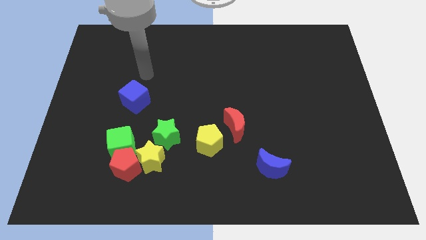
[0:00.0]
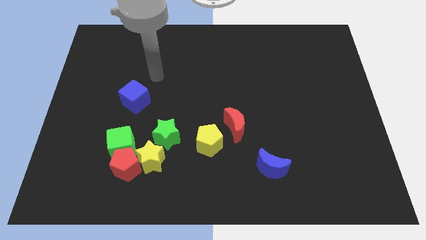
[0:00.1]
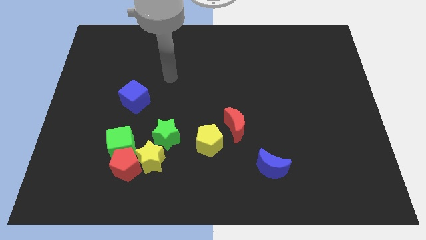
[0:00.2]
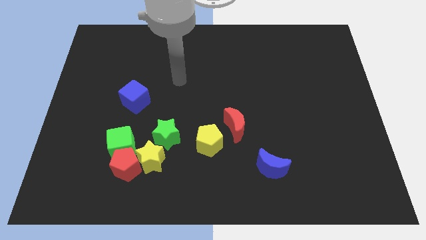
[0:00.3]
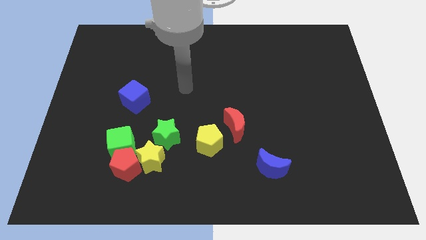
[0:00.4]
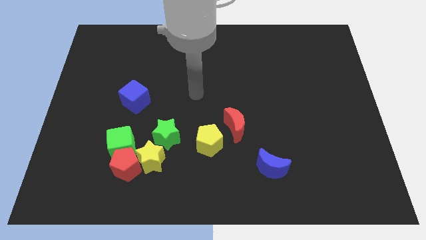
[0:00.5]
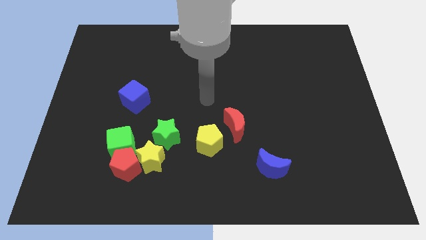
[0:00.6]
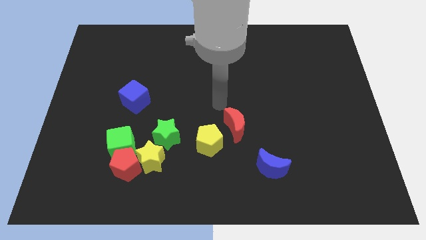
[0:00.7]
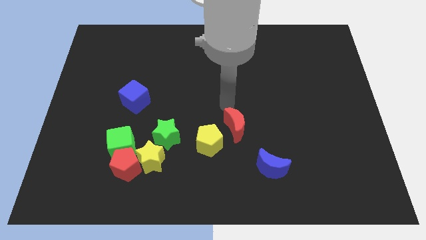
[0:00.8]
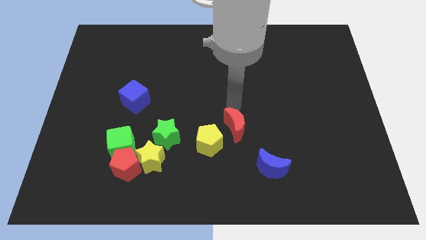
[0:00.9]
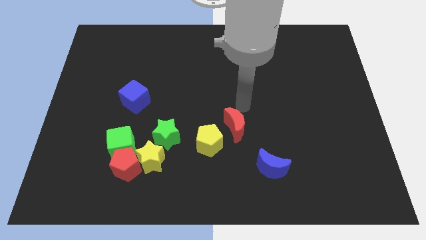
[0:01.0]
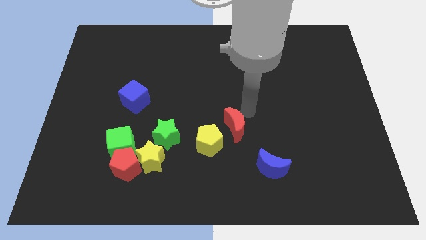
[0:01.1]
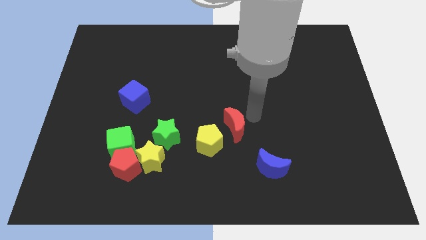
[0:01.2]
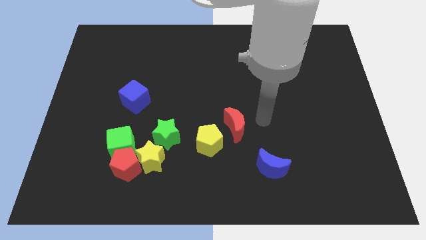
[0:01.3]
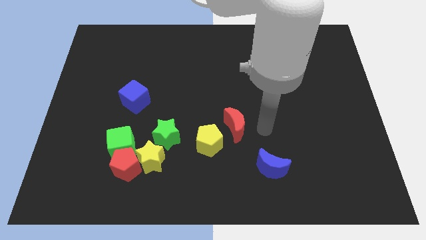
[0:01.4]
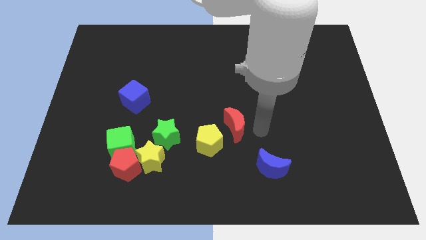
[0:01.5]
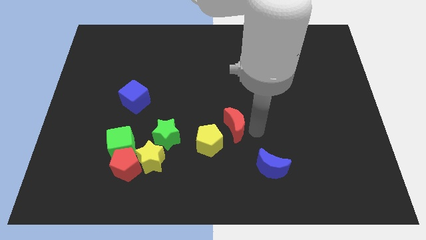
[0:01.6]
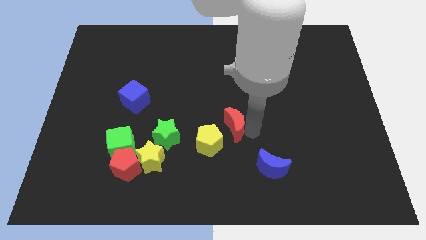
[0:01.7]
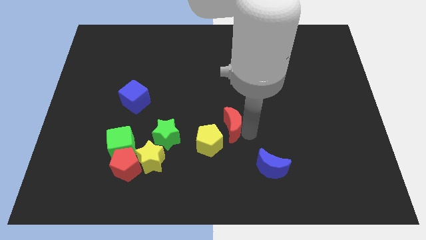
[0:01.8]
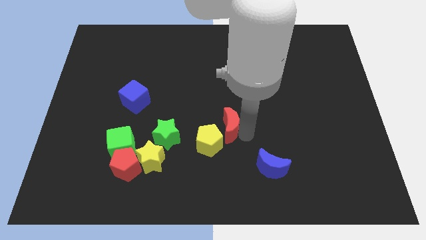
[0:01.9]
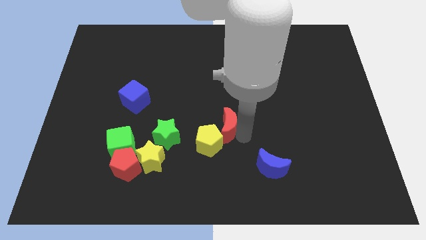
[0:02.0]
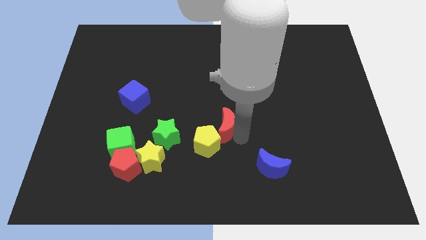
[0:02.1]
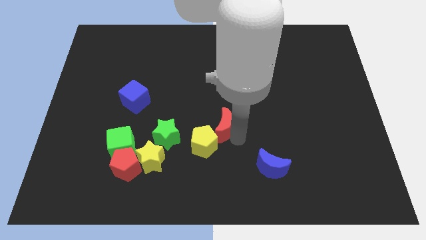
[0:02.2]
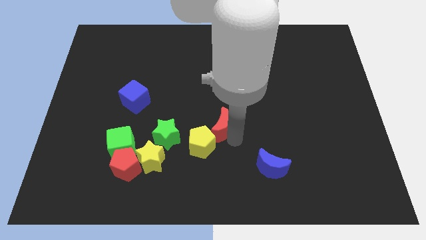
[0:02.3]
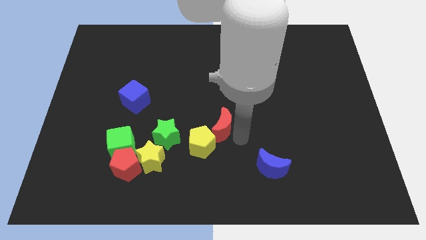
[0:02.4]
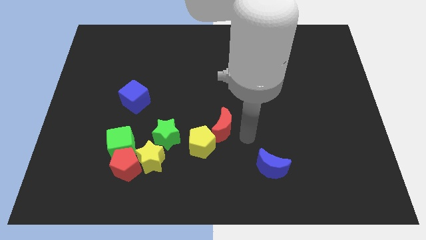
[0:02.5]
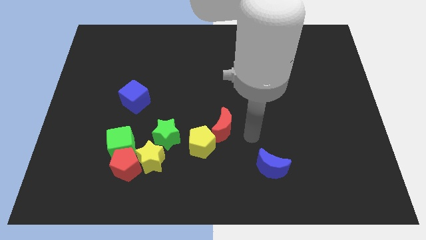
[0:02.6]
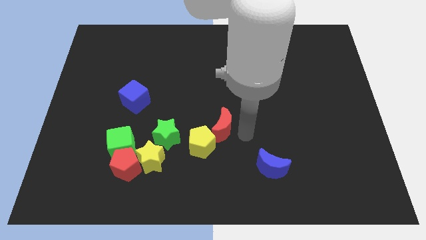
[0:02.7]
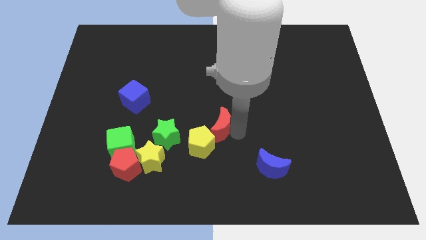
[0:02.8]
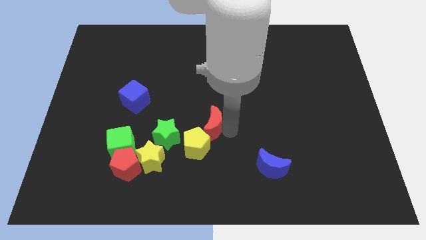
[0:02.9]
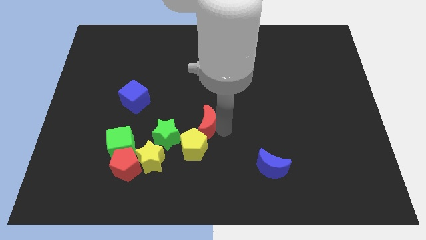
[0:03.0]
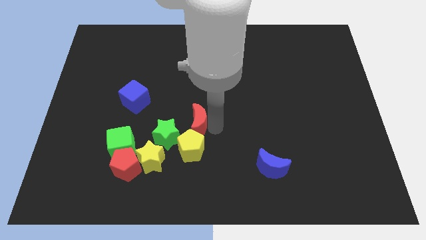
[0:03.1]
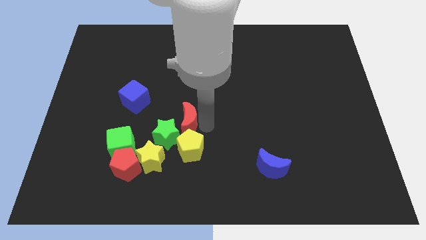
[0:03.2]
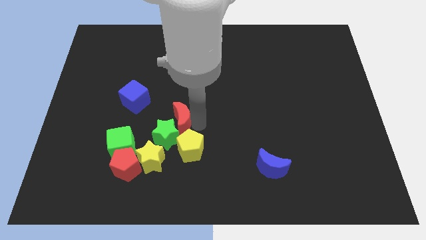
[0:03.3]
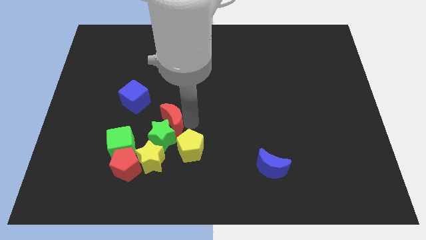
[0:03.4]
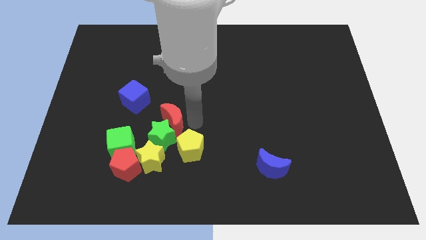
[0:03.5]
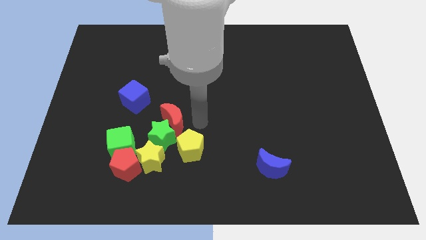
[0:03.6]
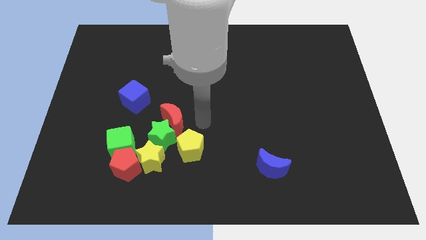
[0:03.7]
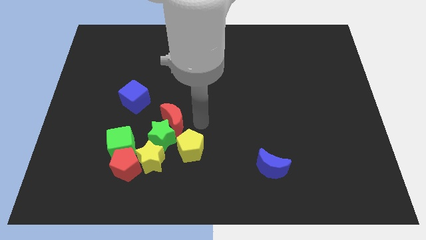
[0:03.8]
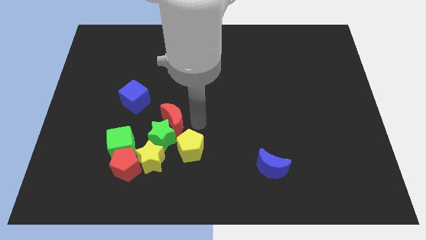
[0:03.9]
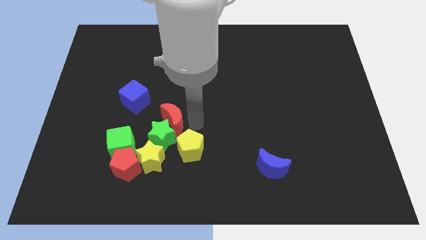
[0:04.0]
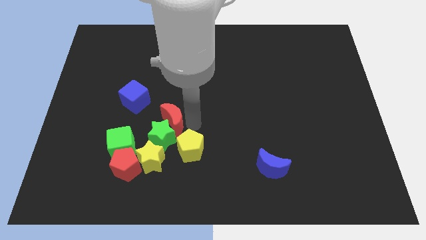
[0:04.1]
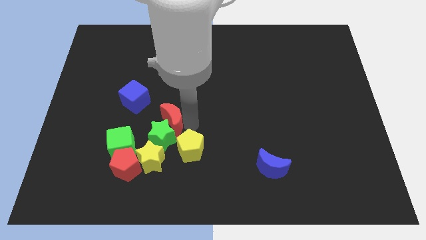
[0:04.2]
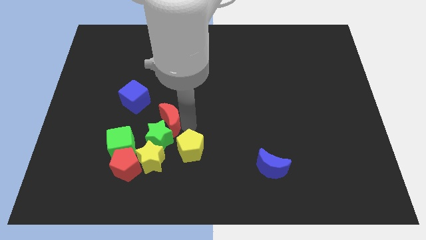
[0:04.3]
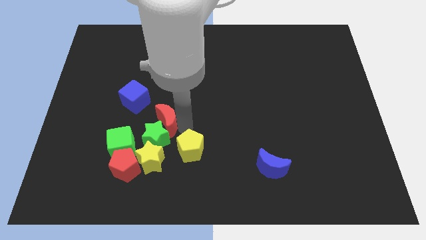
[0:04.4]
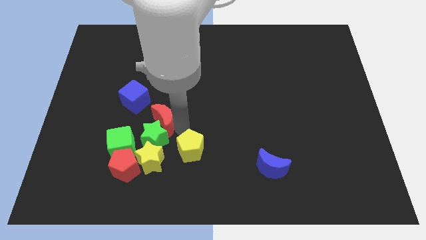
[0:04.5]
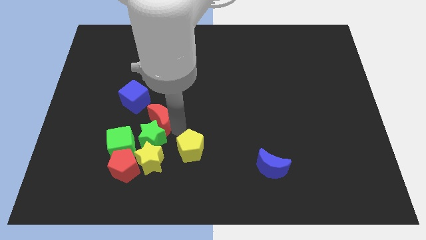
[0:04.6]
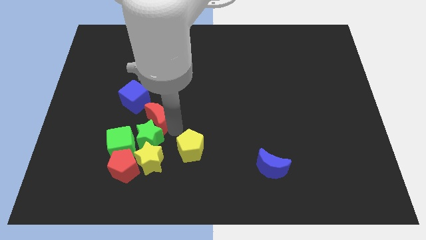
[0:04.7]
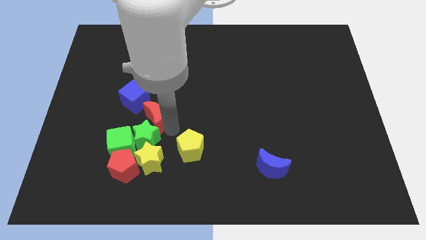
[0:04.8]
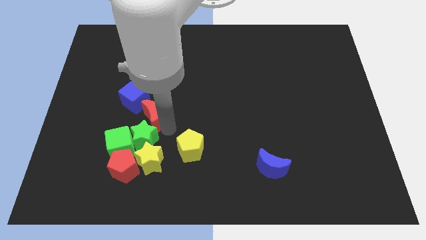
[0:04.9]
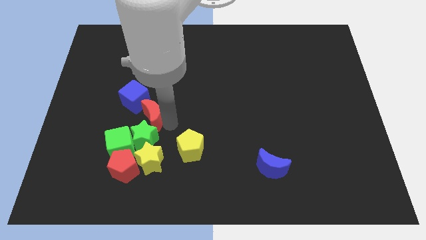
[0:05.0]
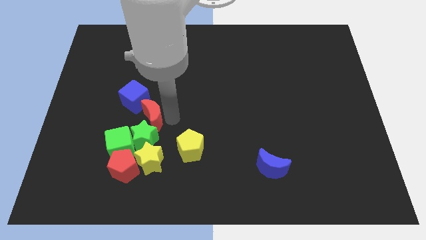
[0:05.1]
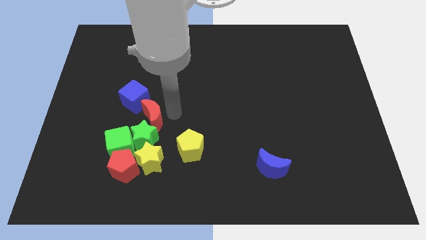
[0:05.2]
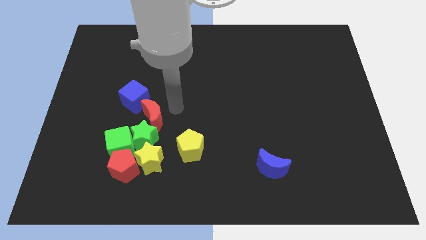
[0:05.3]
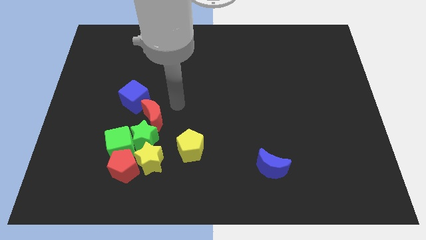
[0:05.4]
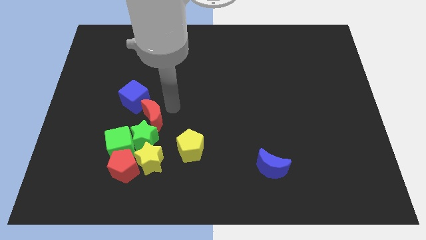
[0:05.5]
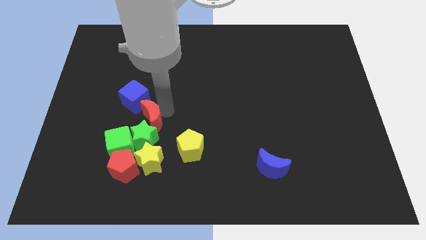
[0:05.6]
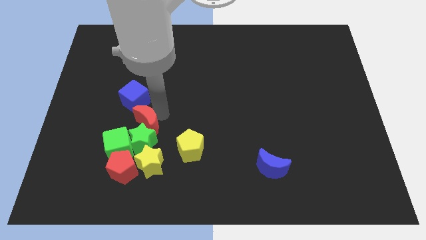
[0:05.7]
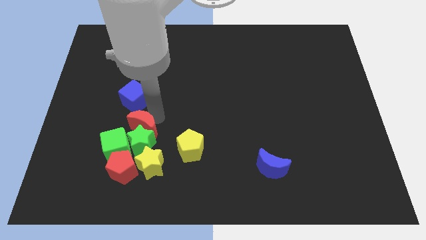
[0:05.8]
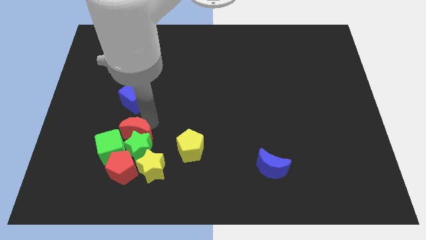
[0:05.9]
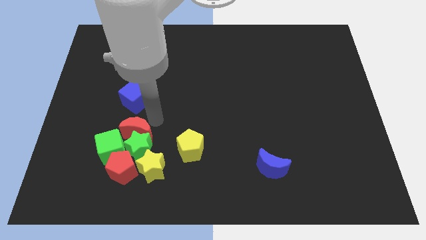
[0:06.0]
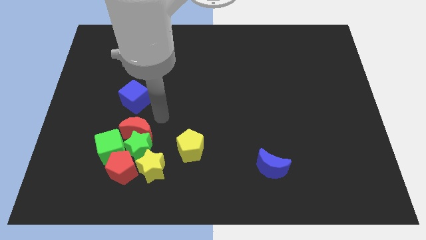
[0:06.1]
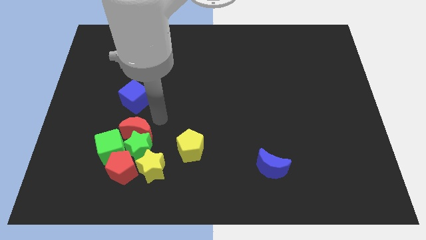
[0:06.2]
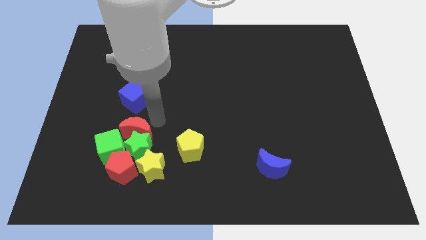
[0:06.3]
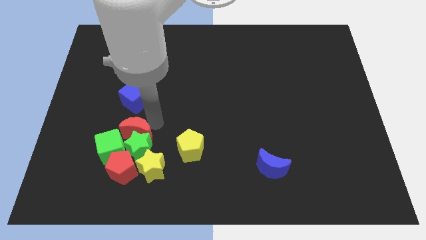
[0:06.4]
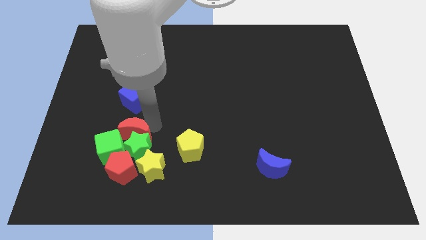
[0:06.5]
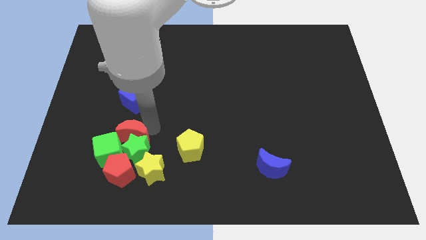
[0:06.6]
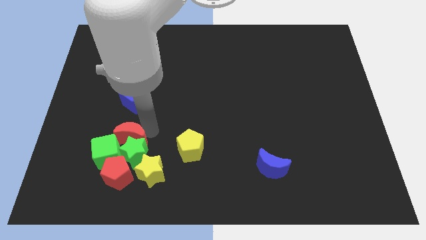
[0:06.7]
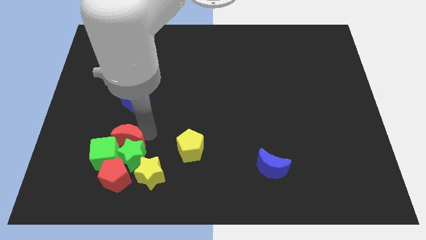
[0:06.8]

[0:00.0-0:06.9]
move the red moon next to the green cube

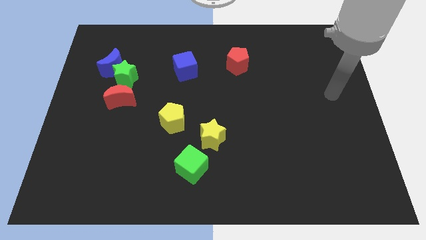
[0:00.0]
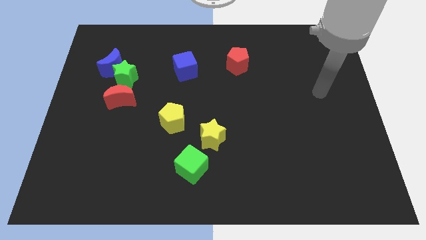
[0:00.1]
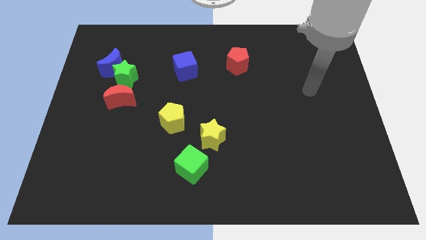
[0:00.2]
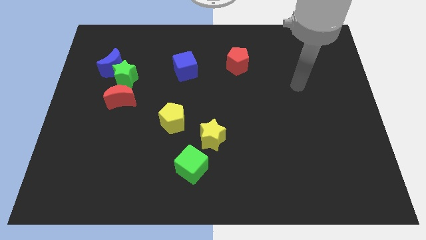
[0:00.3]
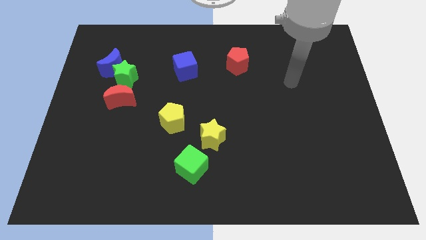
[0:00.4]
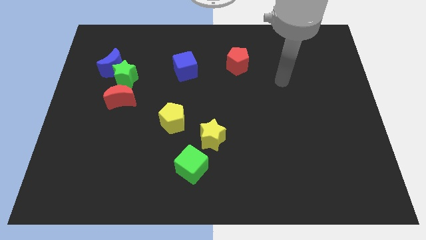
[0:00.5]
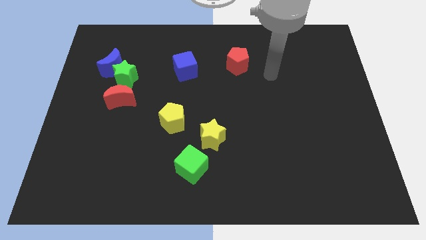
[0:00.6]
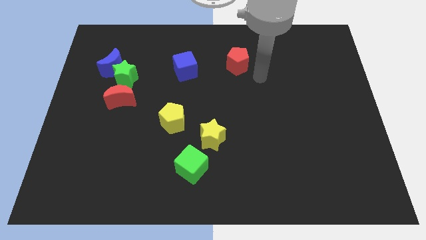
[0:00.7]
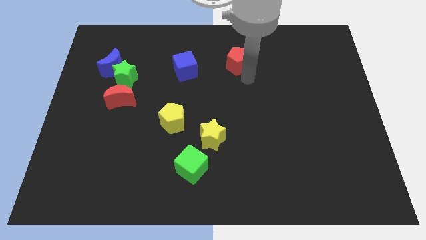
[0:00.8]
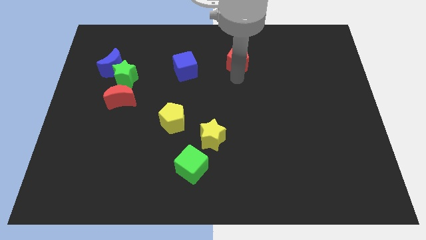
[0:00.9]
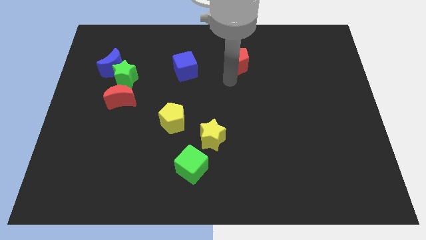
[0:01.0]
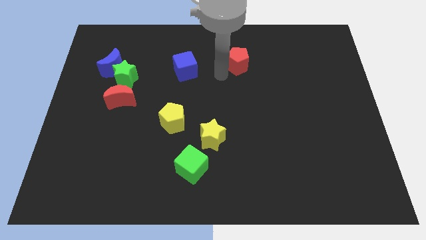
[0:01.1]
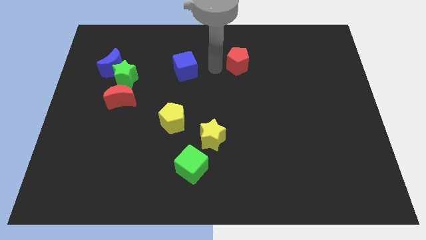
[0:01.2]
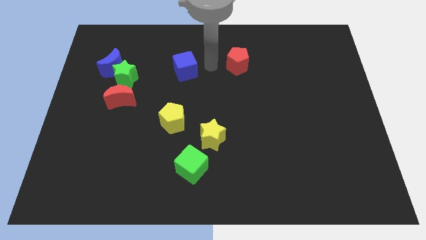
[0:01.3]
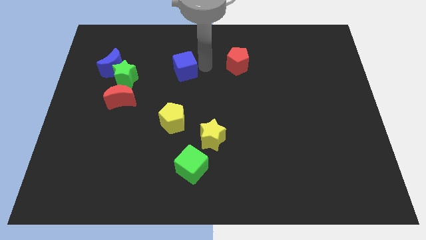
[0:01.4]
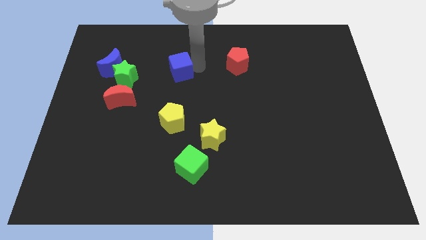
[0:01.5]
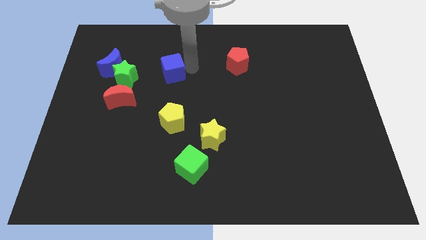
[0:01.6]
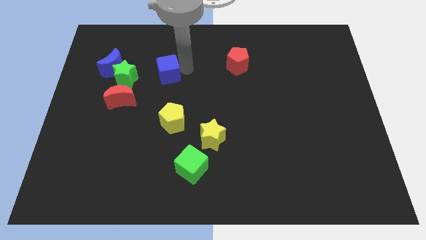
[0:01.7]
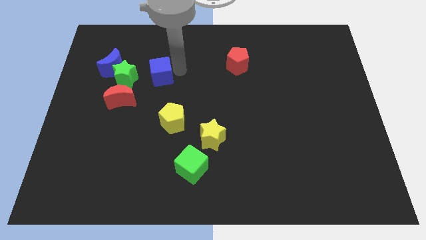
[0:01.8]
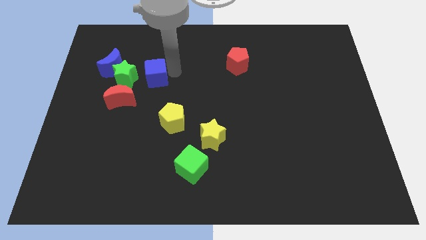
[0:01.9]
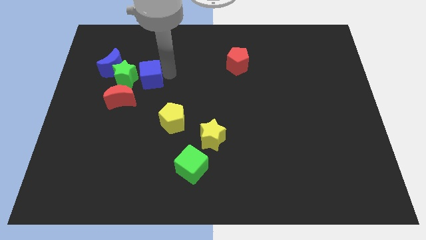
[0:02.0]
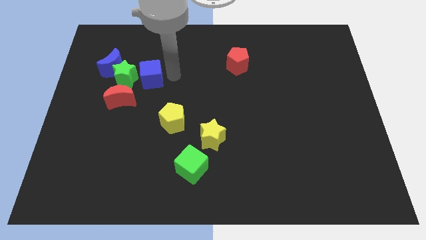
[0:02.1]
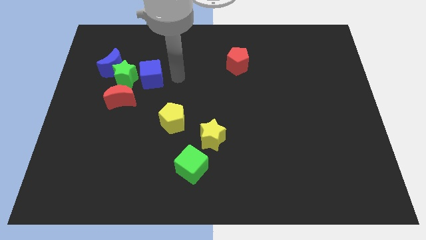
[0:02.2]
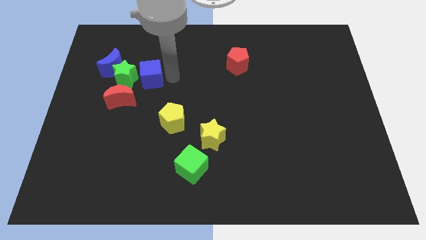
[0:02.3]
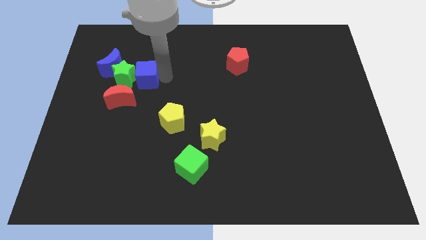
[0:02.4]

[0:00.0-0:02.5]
push the blue cube towards the green star
